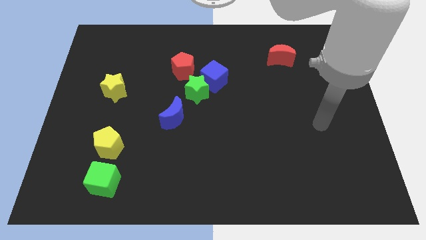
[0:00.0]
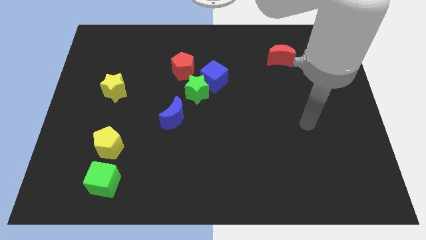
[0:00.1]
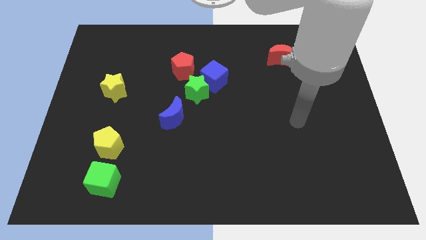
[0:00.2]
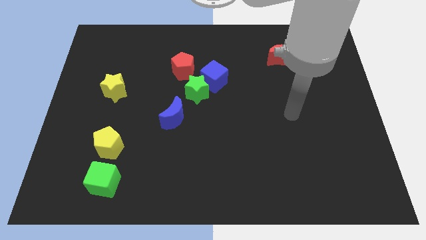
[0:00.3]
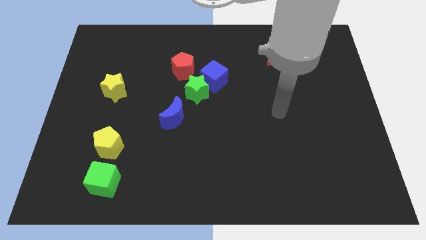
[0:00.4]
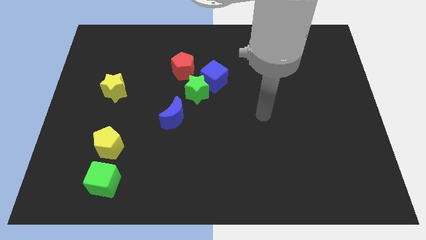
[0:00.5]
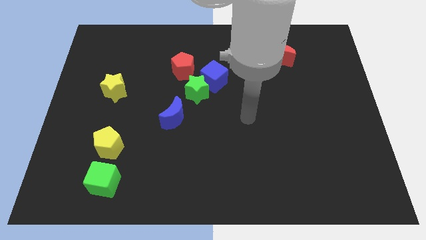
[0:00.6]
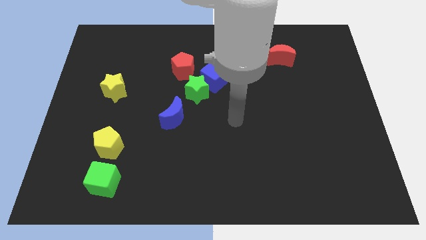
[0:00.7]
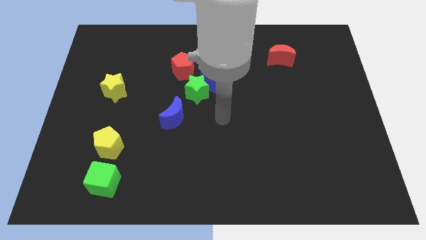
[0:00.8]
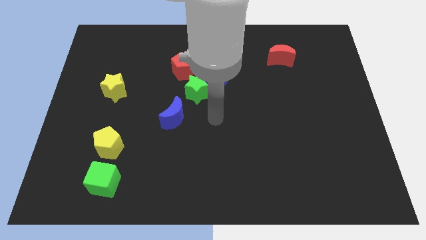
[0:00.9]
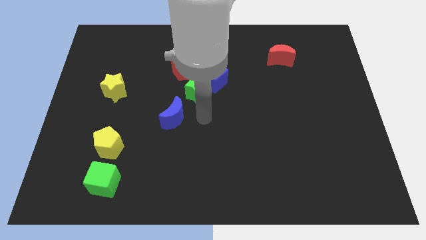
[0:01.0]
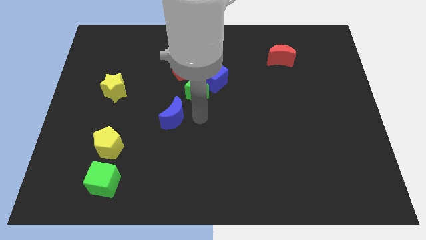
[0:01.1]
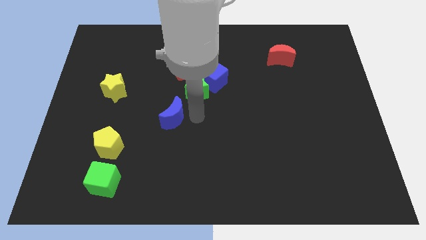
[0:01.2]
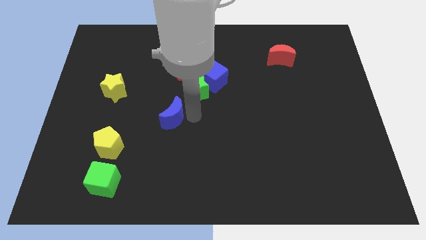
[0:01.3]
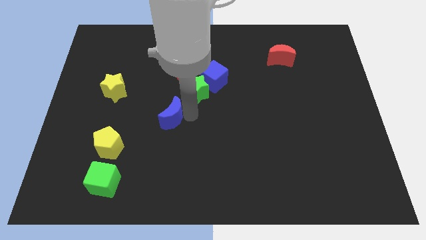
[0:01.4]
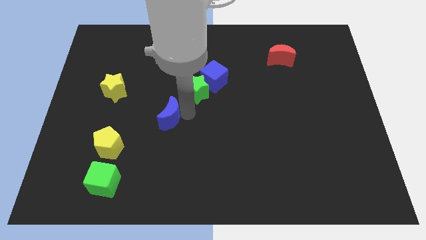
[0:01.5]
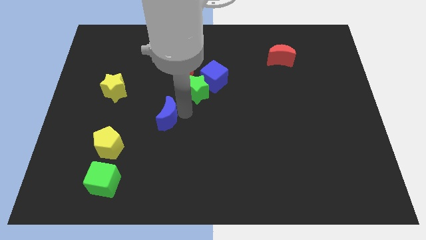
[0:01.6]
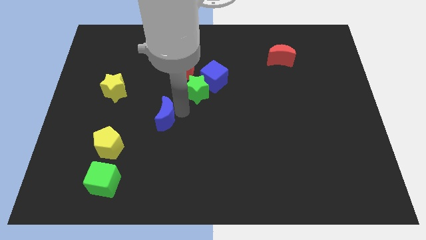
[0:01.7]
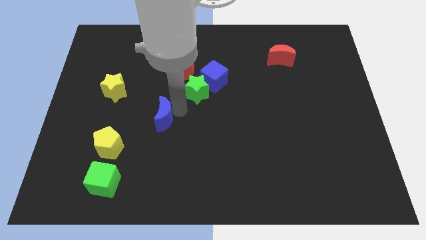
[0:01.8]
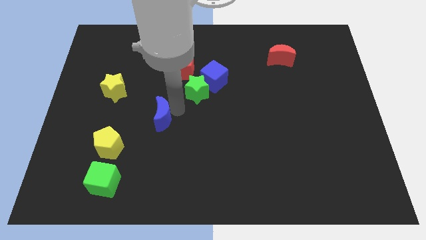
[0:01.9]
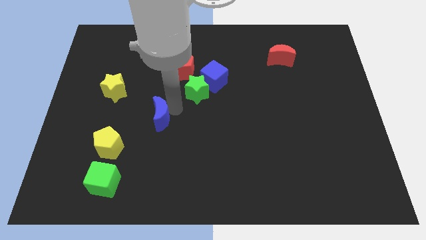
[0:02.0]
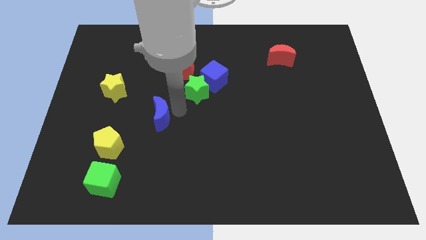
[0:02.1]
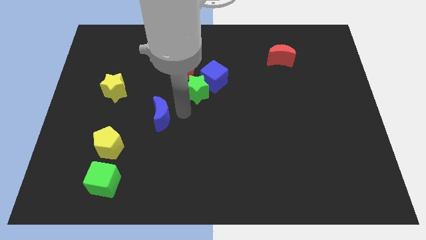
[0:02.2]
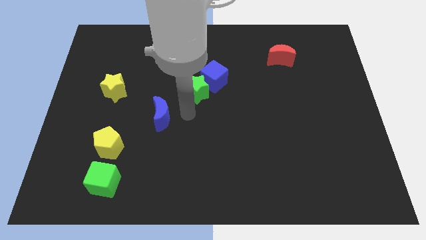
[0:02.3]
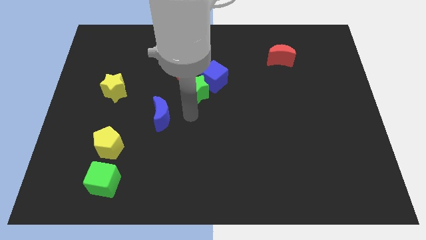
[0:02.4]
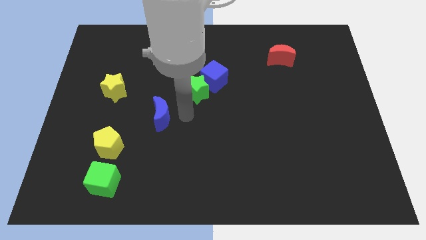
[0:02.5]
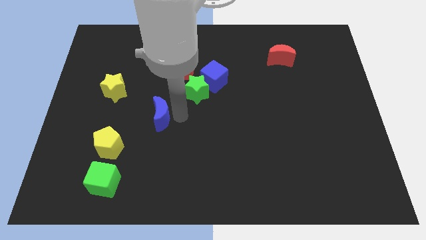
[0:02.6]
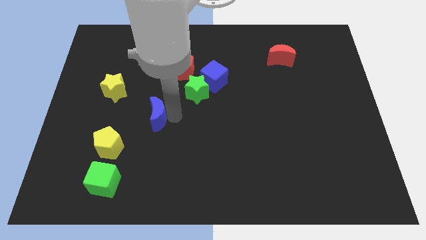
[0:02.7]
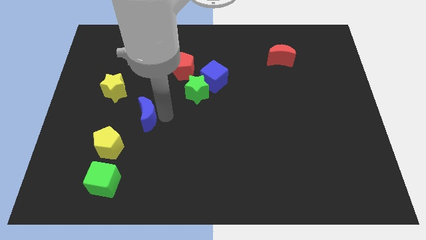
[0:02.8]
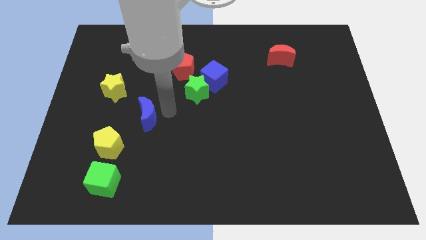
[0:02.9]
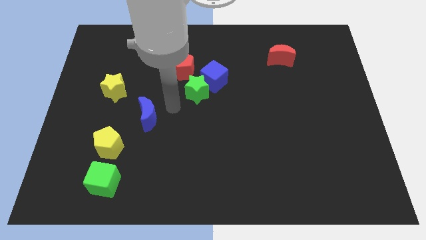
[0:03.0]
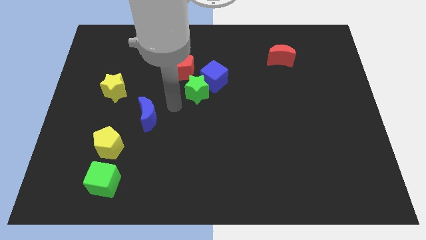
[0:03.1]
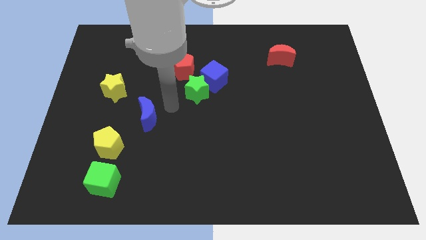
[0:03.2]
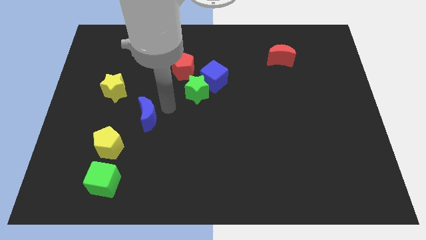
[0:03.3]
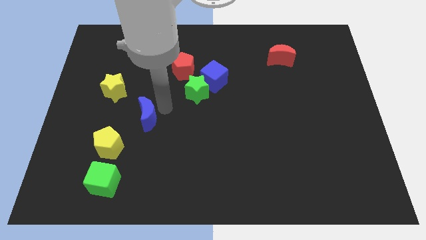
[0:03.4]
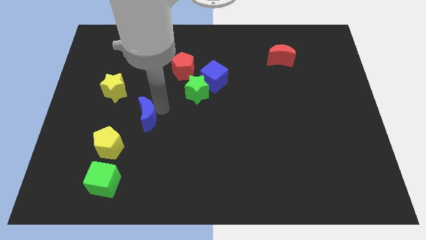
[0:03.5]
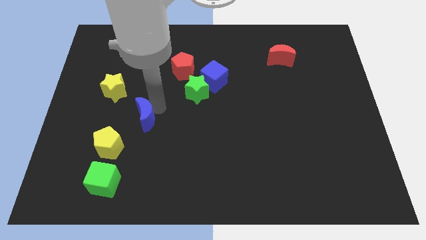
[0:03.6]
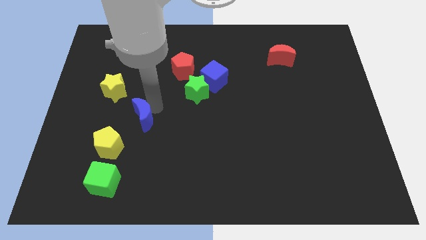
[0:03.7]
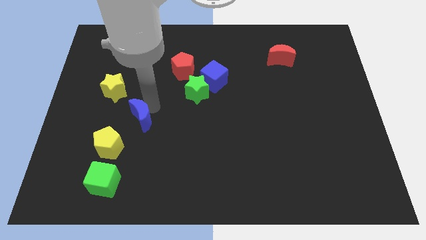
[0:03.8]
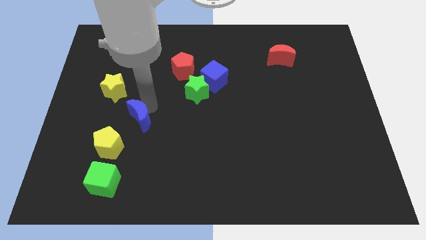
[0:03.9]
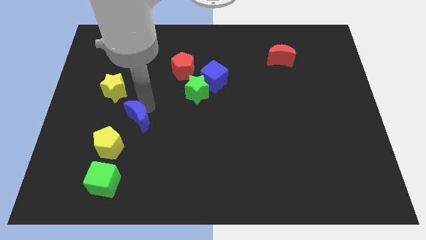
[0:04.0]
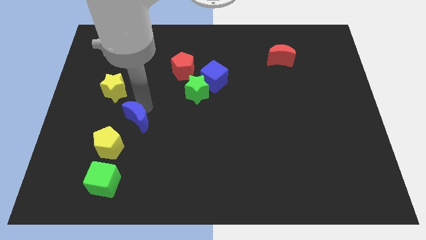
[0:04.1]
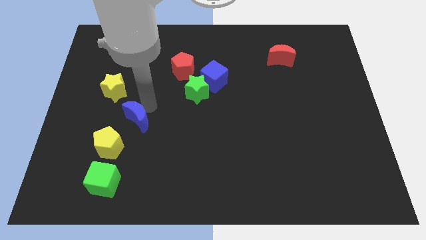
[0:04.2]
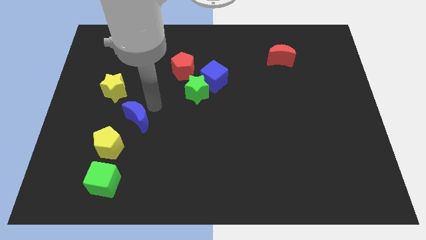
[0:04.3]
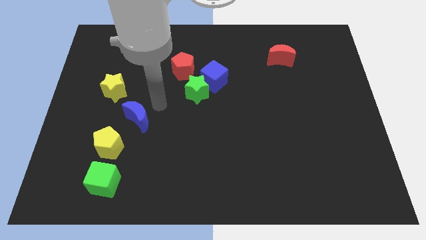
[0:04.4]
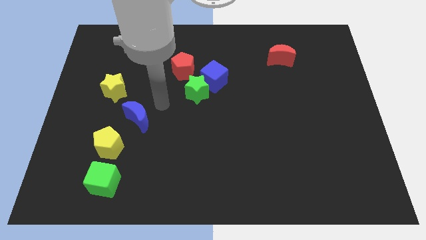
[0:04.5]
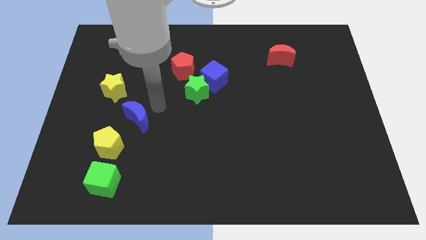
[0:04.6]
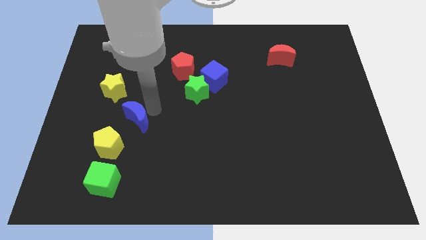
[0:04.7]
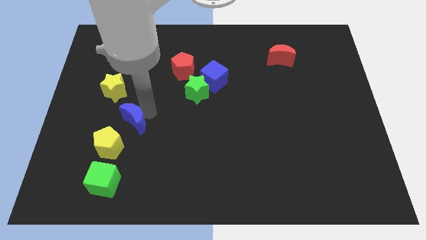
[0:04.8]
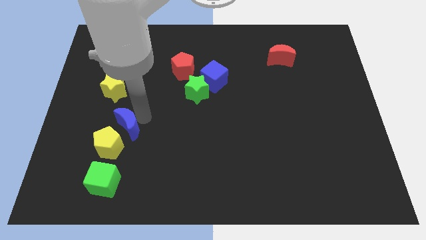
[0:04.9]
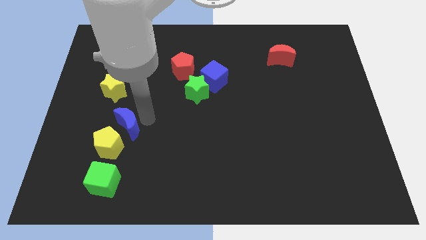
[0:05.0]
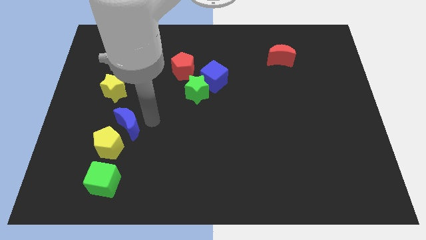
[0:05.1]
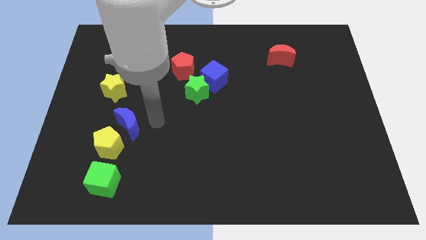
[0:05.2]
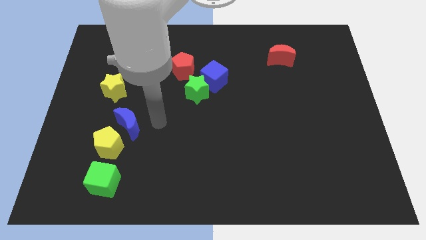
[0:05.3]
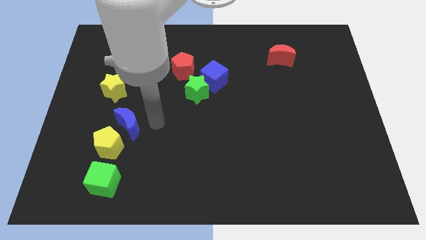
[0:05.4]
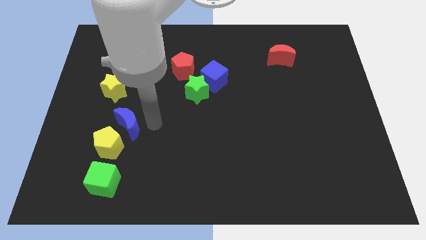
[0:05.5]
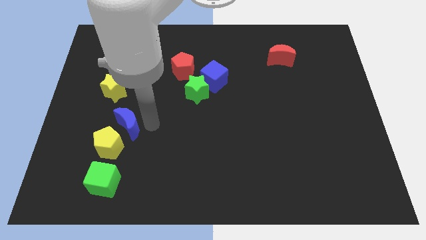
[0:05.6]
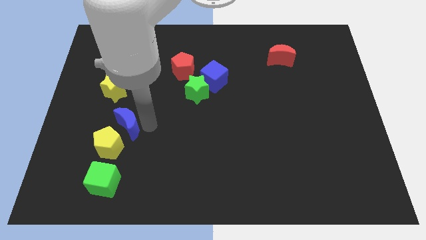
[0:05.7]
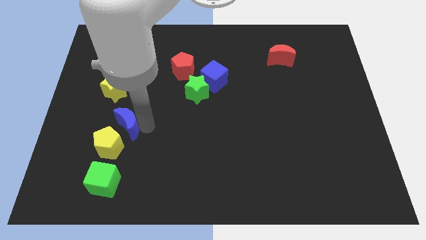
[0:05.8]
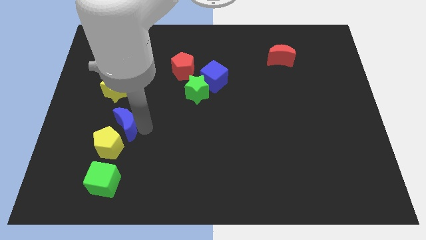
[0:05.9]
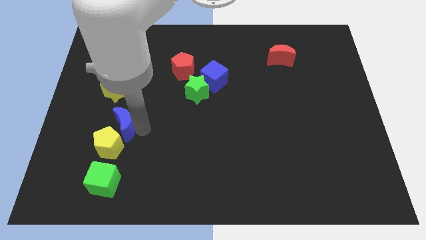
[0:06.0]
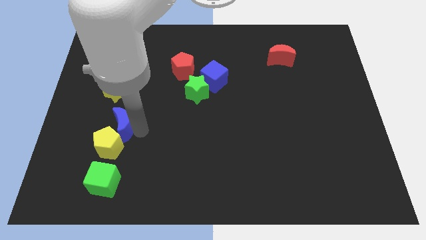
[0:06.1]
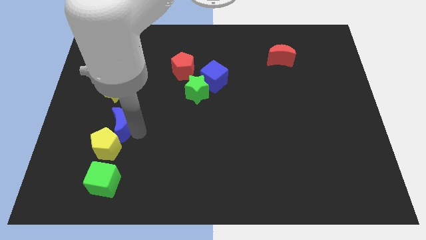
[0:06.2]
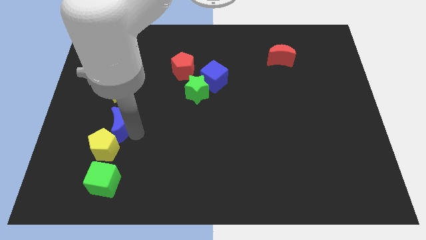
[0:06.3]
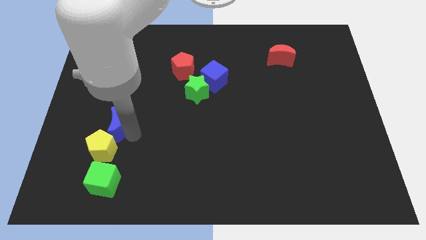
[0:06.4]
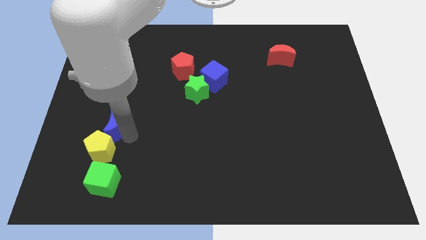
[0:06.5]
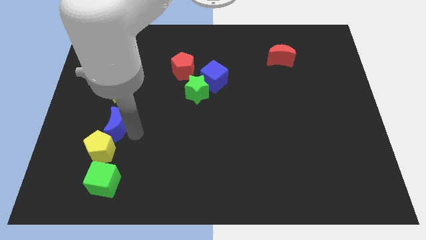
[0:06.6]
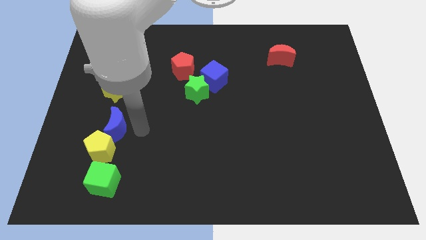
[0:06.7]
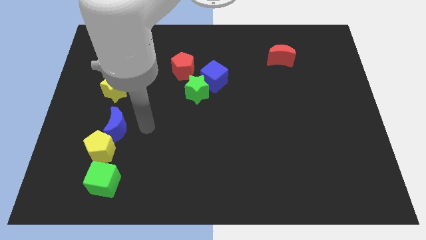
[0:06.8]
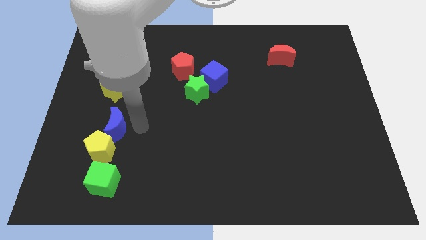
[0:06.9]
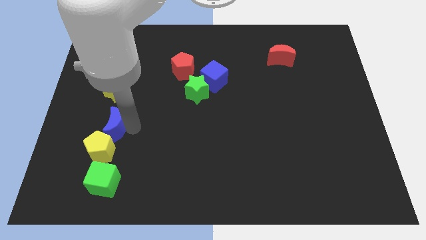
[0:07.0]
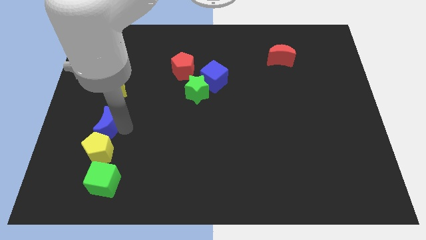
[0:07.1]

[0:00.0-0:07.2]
push the blue moon to the top left side of the yellow pentagon
